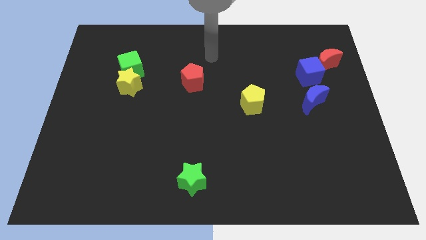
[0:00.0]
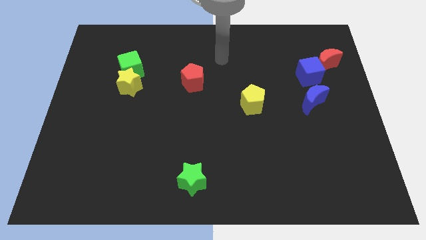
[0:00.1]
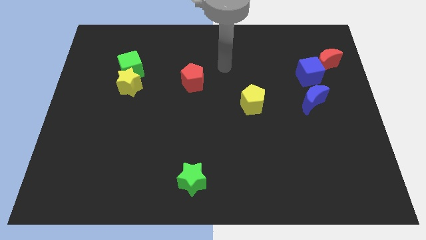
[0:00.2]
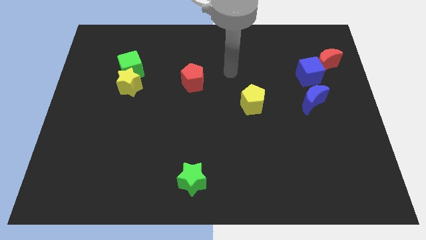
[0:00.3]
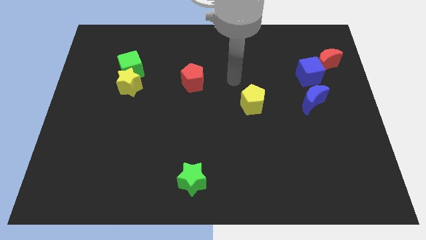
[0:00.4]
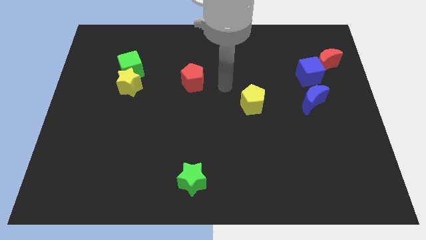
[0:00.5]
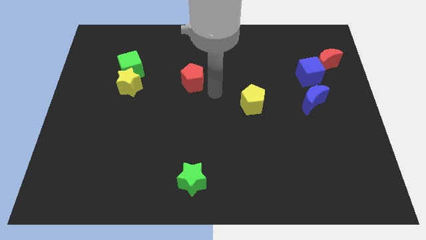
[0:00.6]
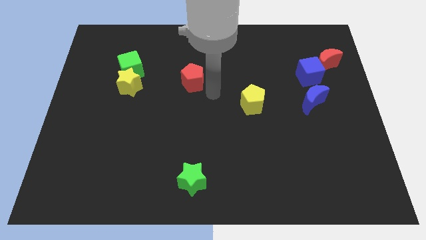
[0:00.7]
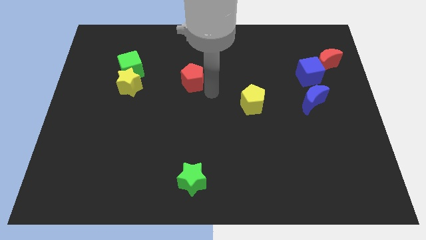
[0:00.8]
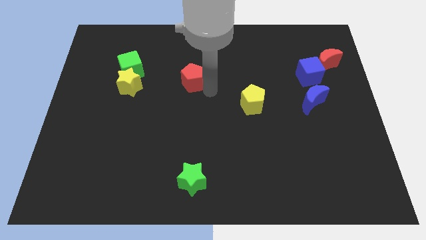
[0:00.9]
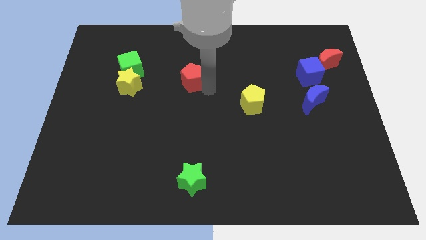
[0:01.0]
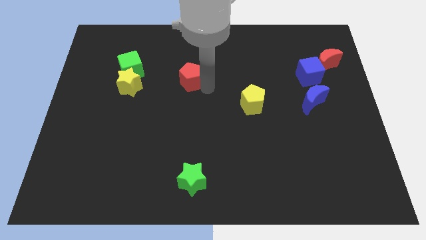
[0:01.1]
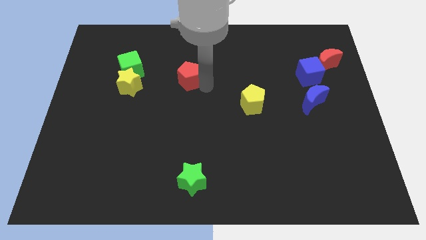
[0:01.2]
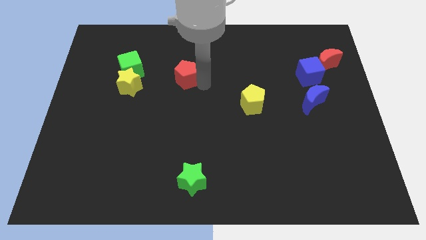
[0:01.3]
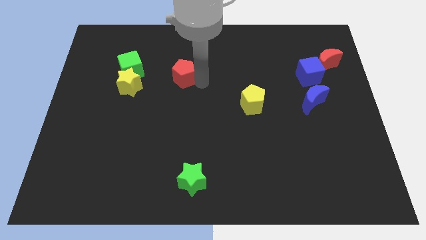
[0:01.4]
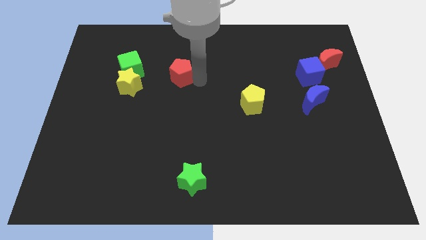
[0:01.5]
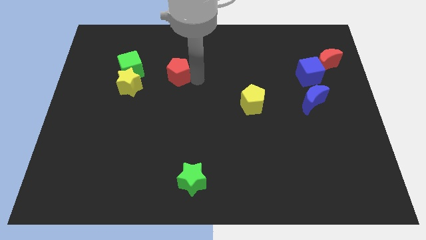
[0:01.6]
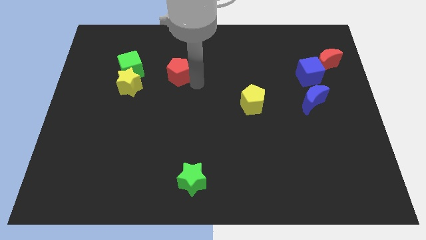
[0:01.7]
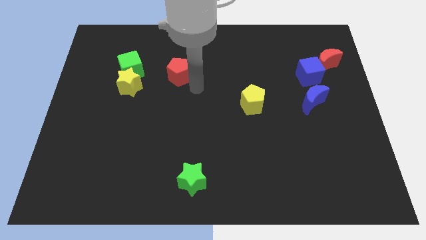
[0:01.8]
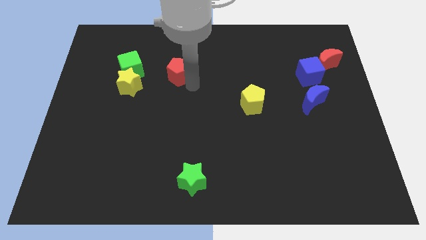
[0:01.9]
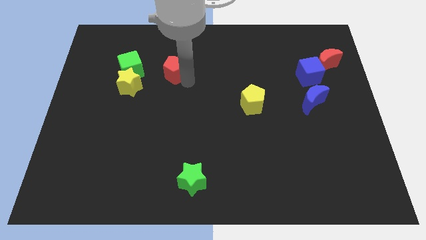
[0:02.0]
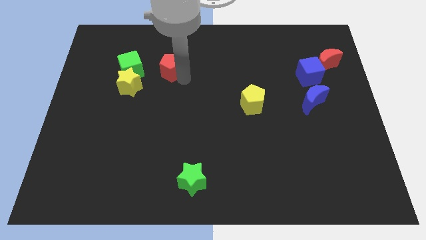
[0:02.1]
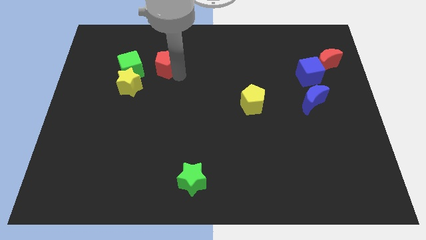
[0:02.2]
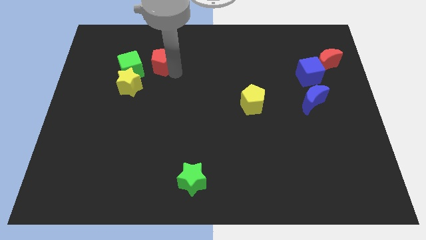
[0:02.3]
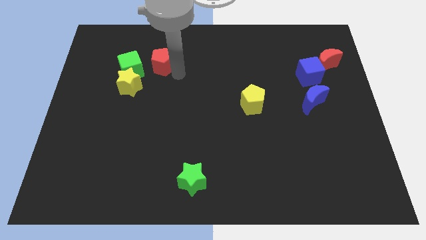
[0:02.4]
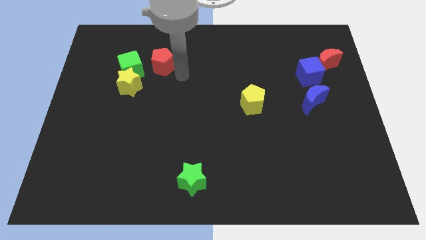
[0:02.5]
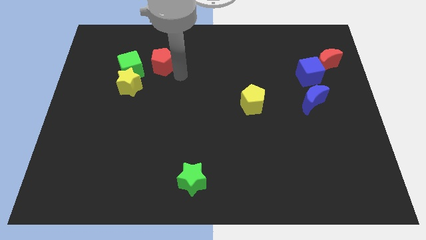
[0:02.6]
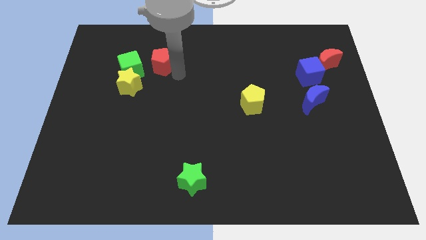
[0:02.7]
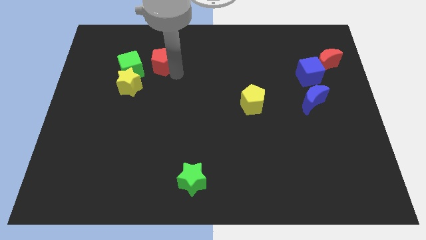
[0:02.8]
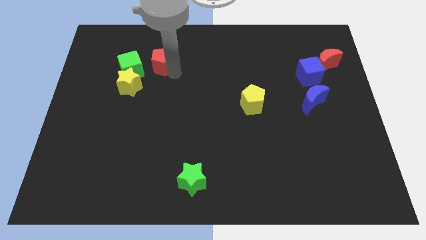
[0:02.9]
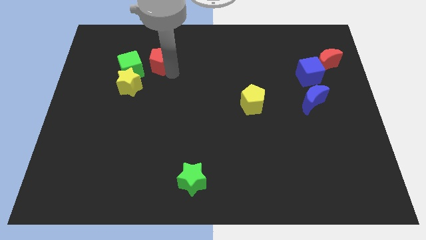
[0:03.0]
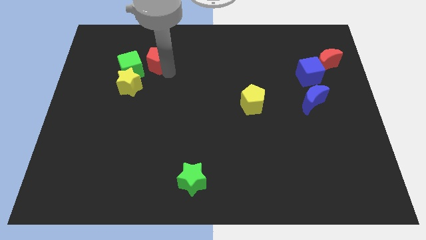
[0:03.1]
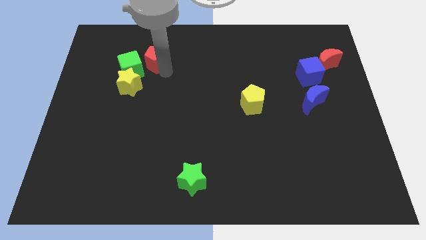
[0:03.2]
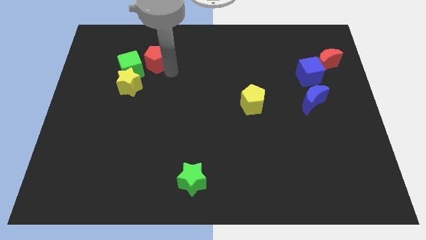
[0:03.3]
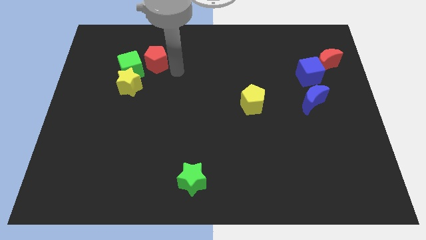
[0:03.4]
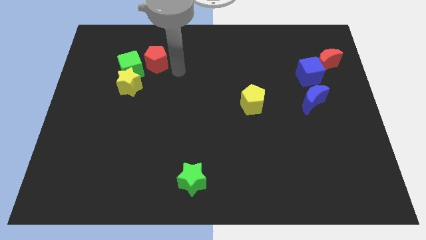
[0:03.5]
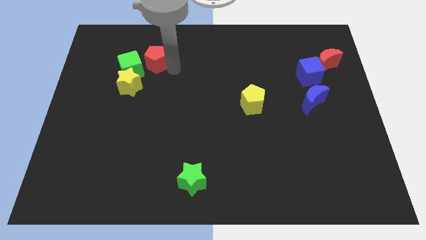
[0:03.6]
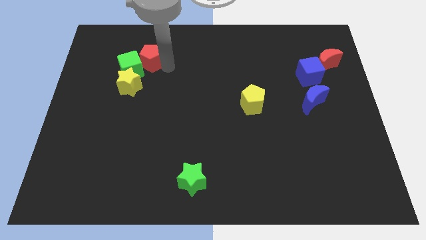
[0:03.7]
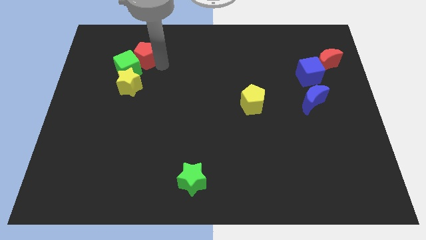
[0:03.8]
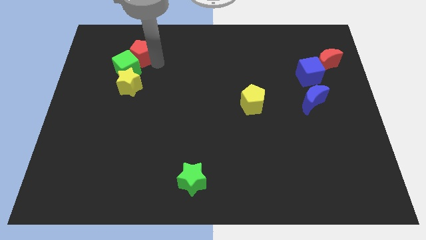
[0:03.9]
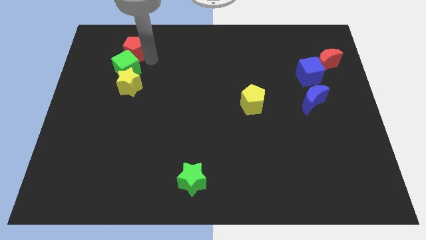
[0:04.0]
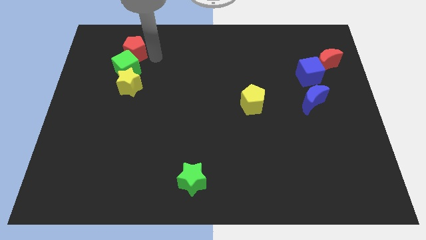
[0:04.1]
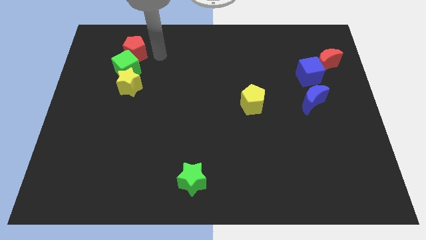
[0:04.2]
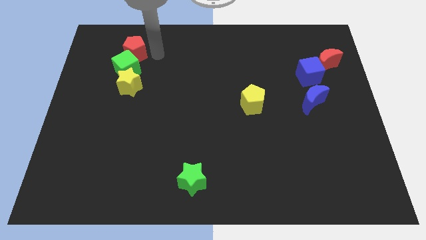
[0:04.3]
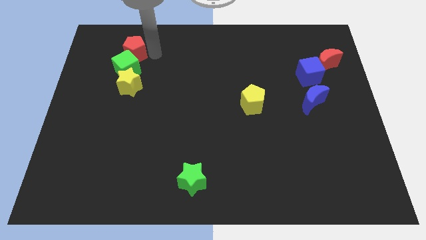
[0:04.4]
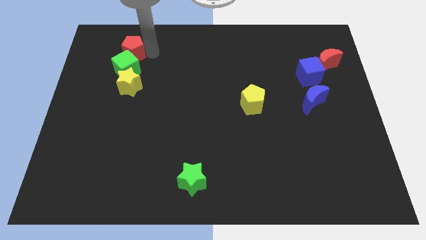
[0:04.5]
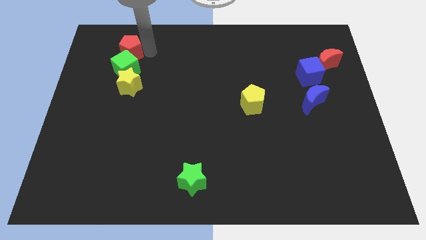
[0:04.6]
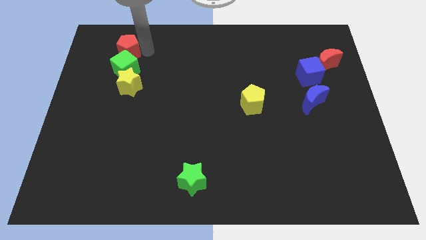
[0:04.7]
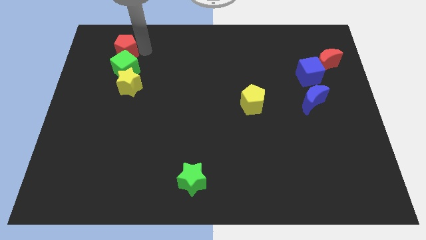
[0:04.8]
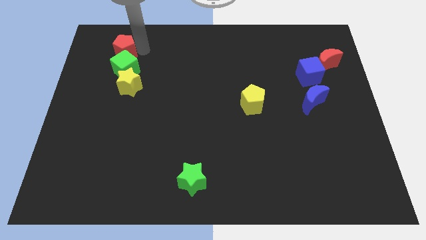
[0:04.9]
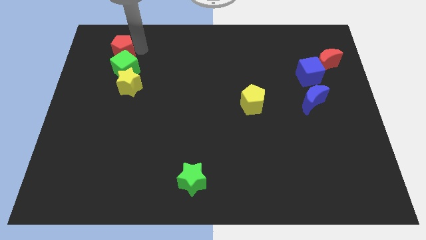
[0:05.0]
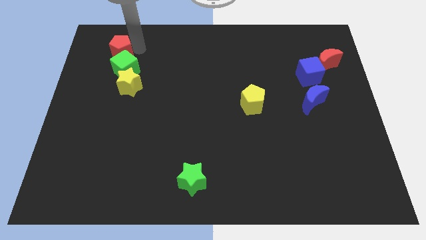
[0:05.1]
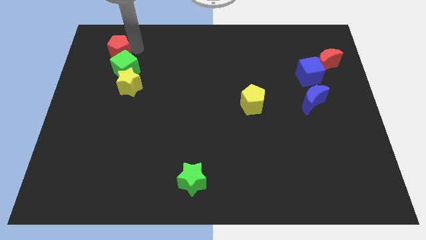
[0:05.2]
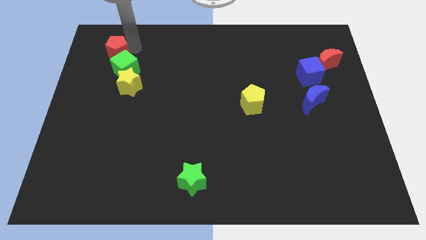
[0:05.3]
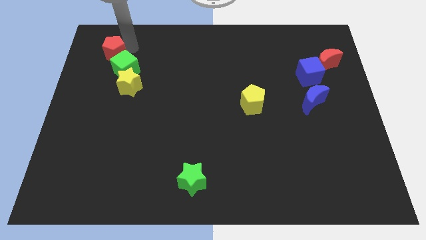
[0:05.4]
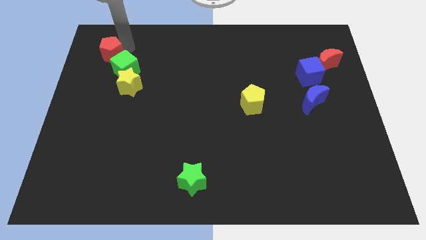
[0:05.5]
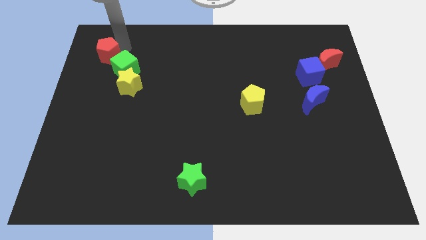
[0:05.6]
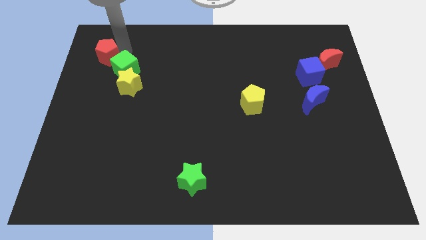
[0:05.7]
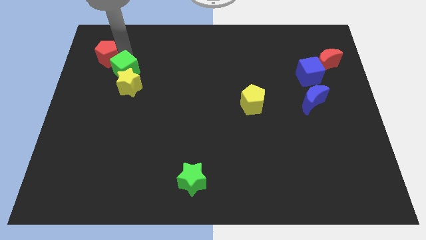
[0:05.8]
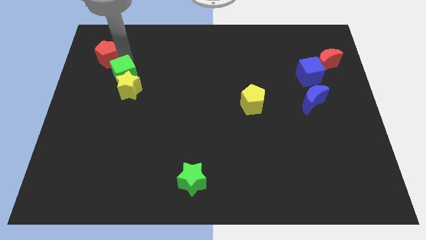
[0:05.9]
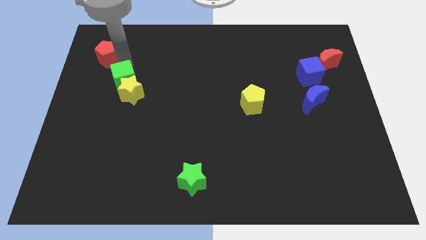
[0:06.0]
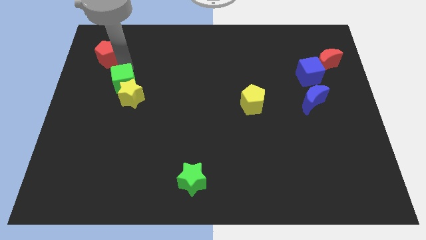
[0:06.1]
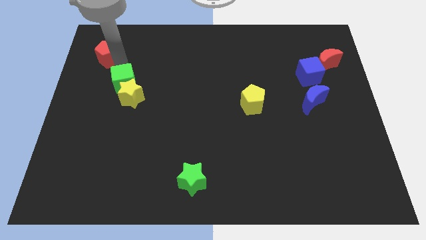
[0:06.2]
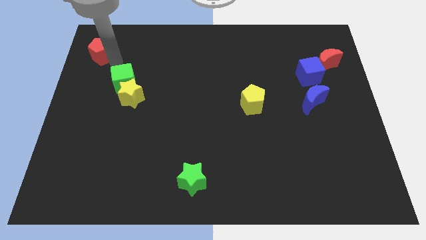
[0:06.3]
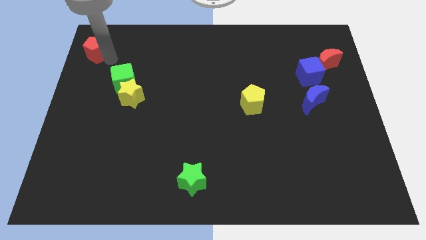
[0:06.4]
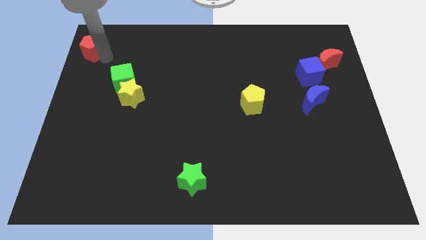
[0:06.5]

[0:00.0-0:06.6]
put the red pentagon to the top left corner

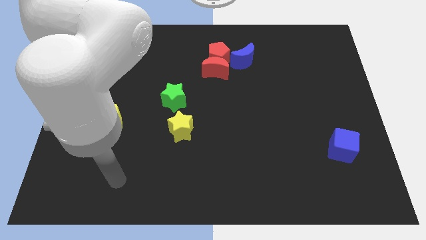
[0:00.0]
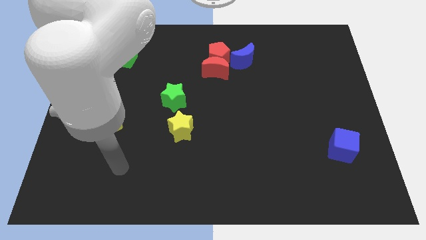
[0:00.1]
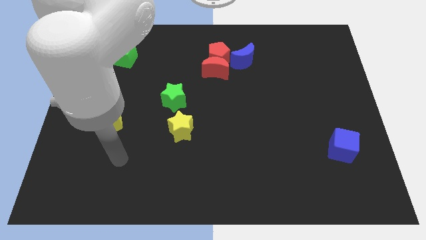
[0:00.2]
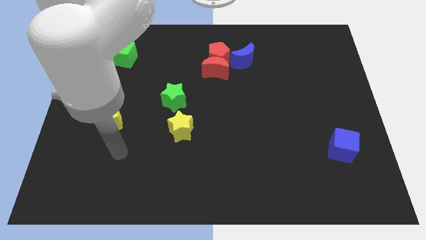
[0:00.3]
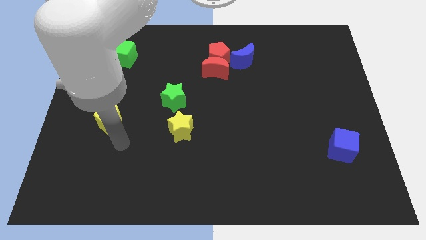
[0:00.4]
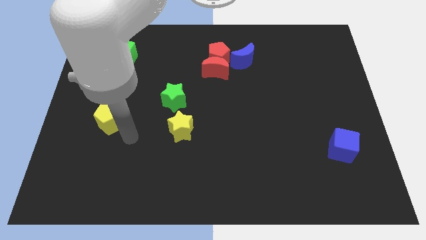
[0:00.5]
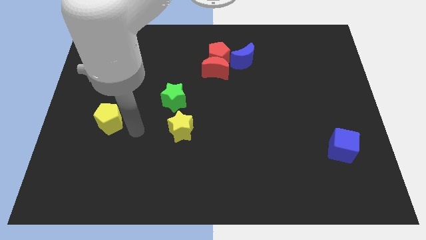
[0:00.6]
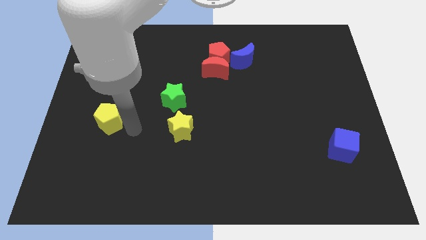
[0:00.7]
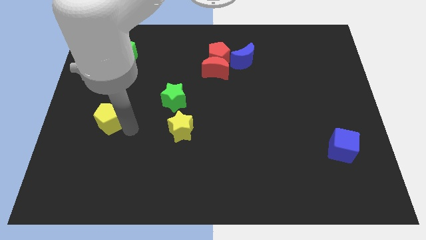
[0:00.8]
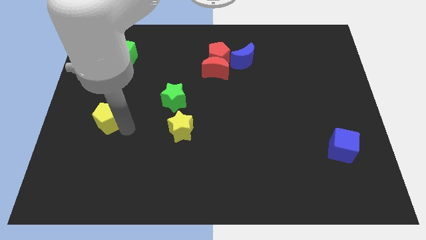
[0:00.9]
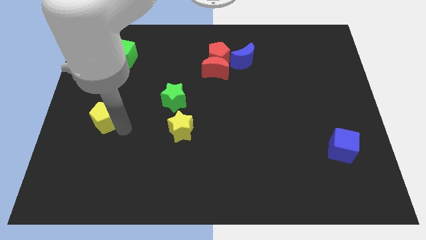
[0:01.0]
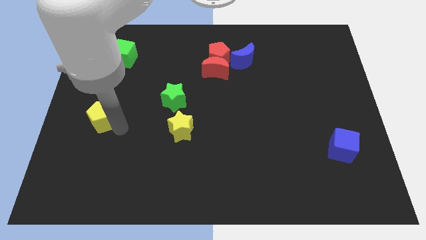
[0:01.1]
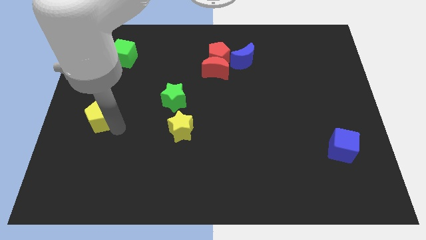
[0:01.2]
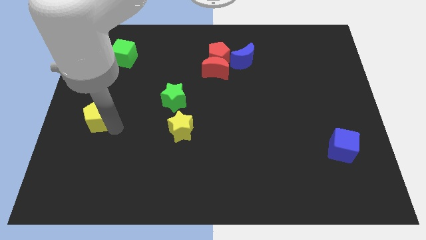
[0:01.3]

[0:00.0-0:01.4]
slide the yellow pentagon to the left side of the board
